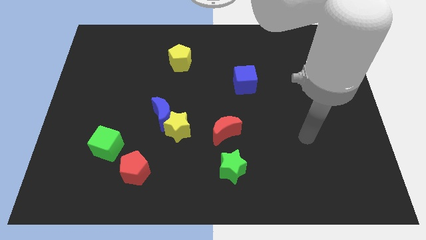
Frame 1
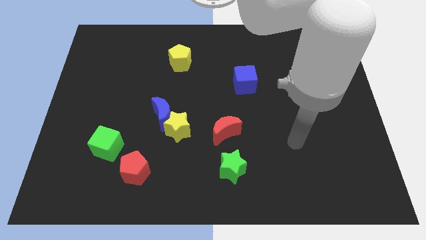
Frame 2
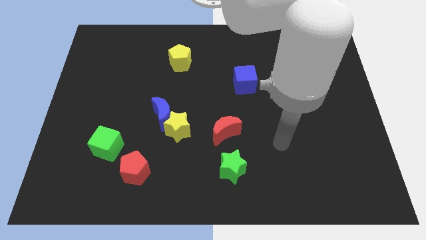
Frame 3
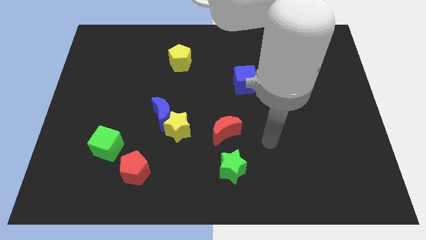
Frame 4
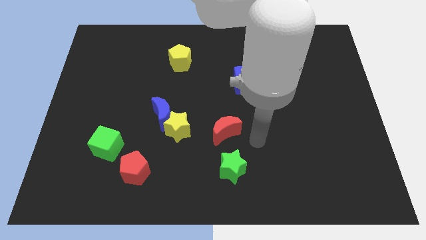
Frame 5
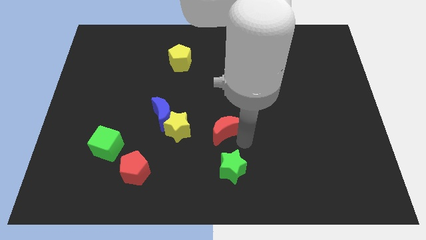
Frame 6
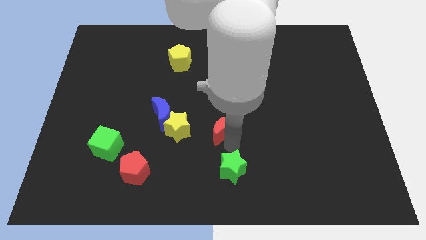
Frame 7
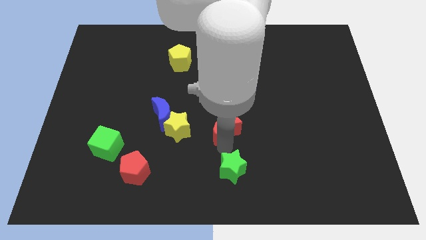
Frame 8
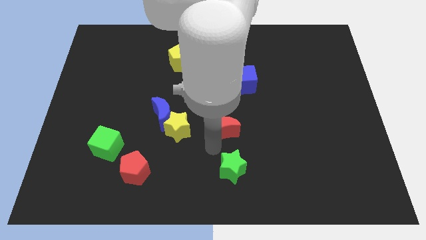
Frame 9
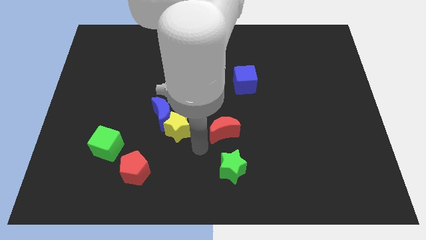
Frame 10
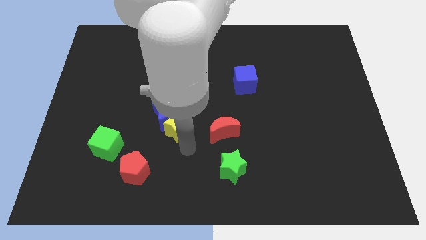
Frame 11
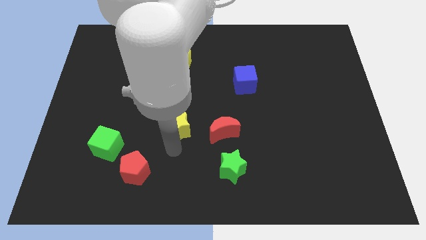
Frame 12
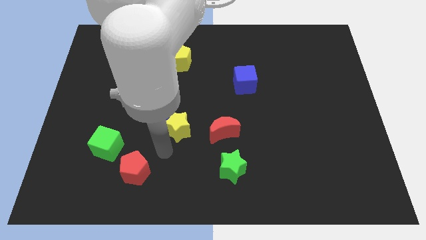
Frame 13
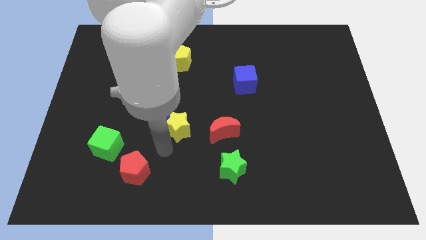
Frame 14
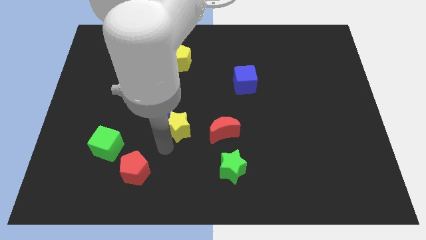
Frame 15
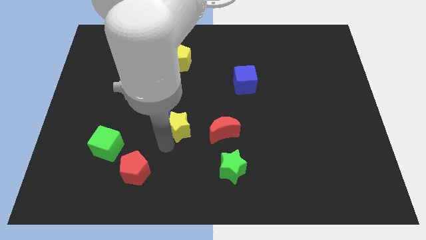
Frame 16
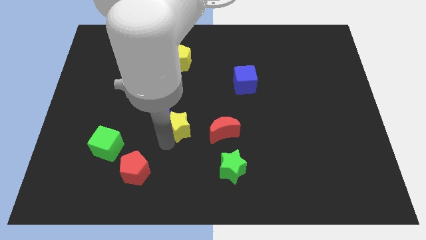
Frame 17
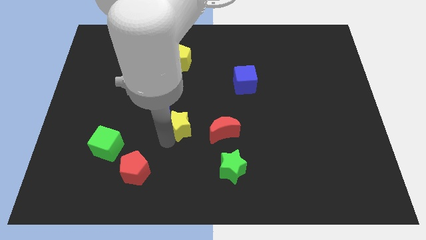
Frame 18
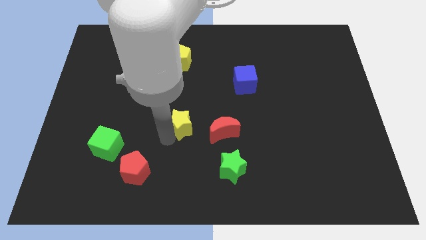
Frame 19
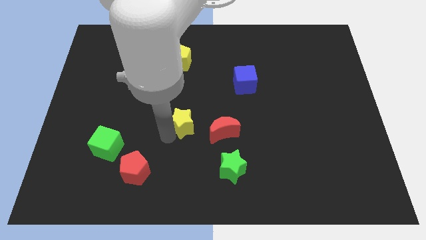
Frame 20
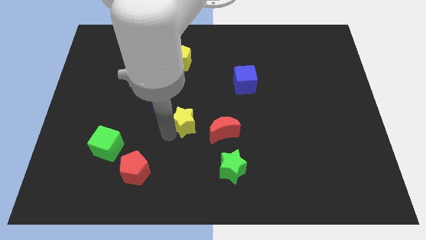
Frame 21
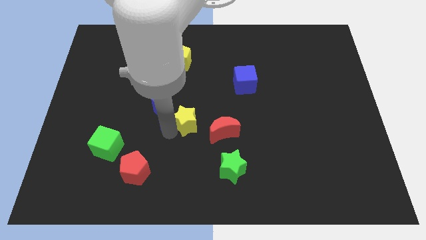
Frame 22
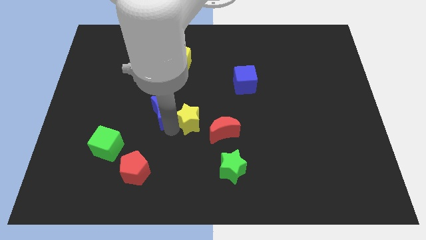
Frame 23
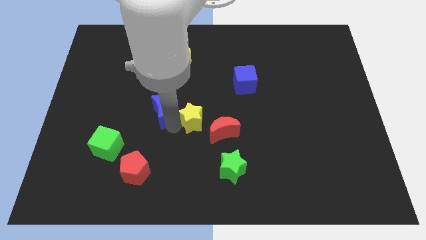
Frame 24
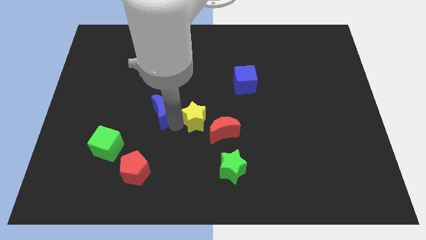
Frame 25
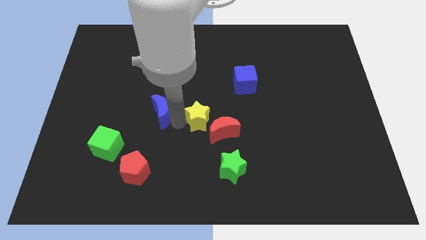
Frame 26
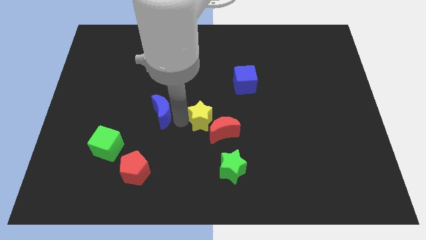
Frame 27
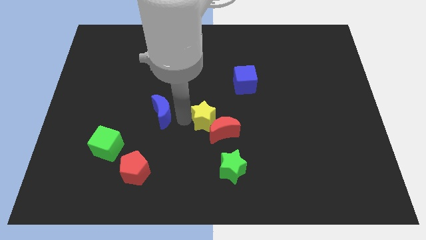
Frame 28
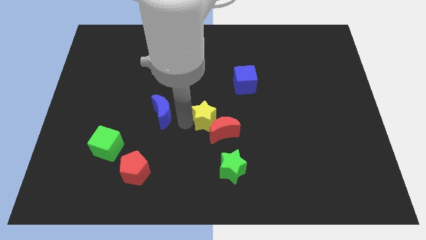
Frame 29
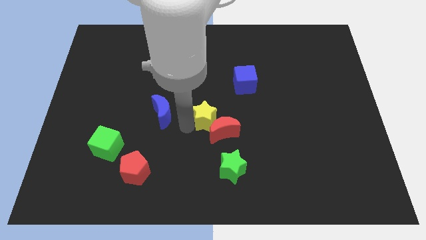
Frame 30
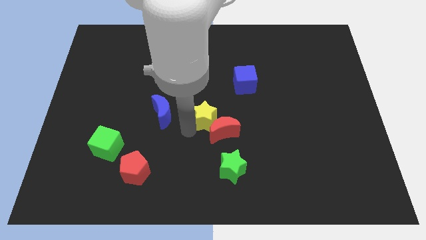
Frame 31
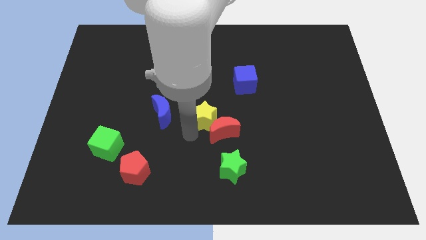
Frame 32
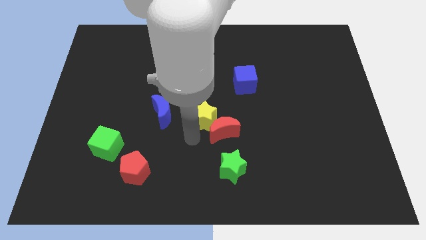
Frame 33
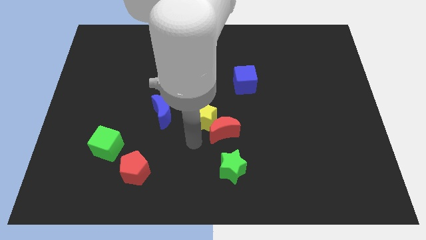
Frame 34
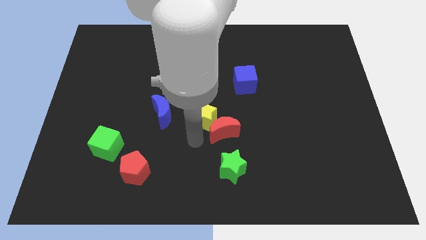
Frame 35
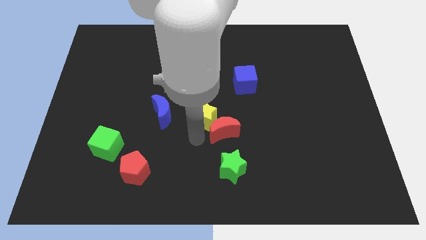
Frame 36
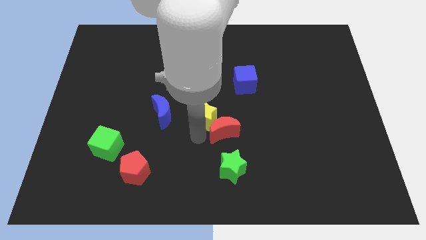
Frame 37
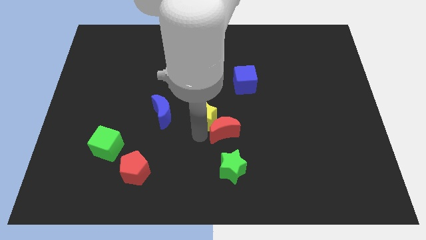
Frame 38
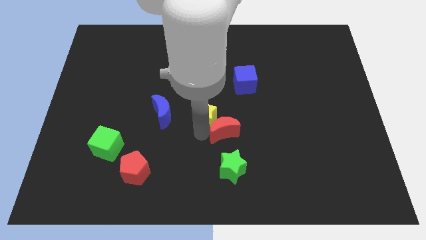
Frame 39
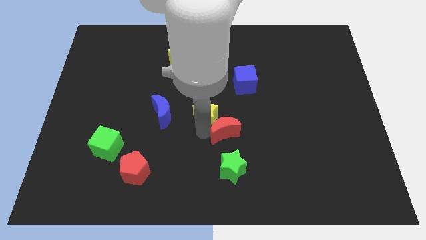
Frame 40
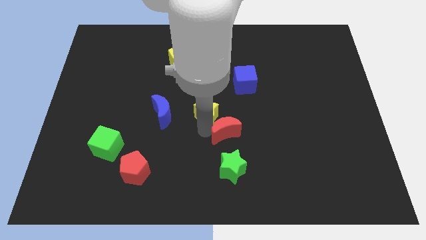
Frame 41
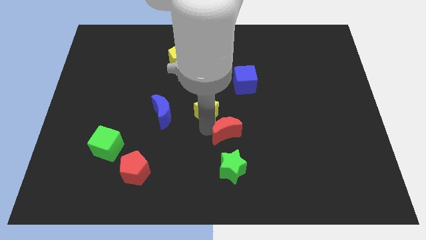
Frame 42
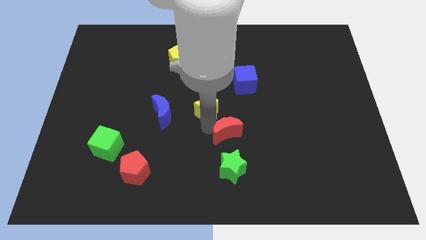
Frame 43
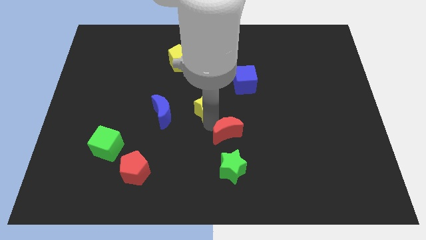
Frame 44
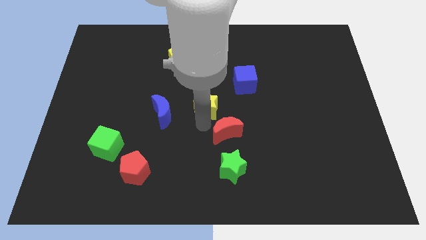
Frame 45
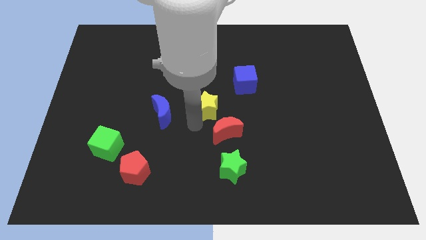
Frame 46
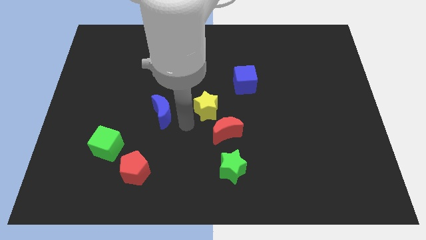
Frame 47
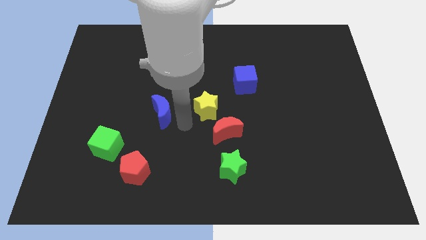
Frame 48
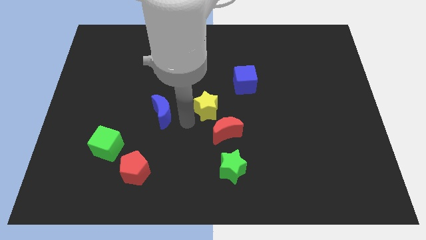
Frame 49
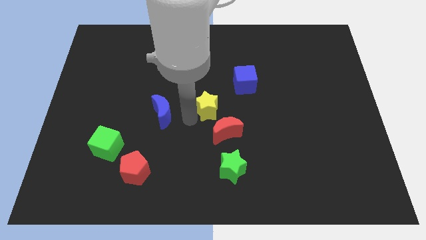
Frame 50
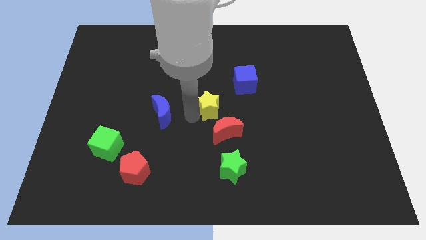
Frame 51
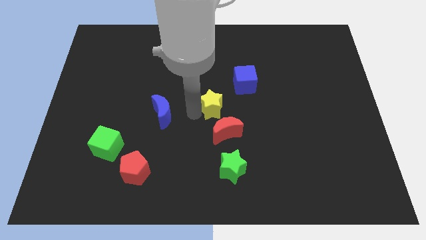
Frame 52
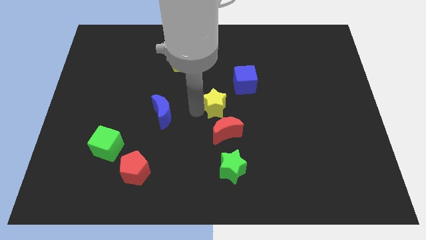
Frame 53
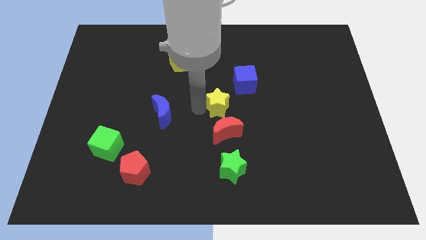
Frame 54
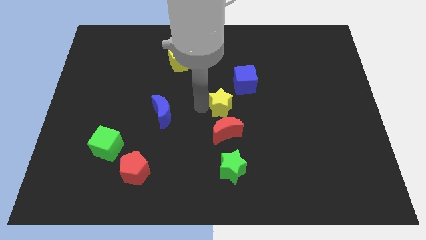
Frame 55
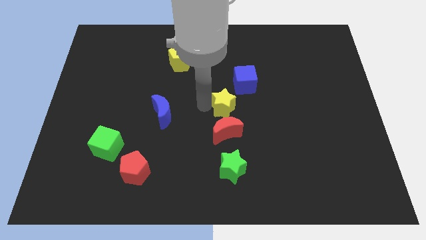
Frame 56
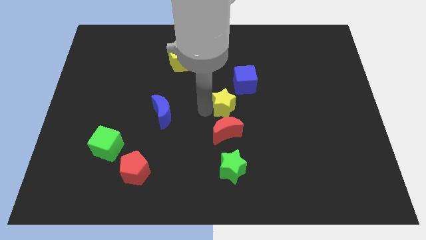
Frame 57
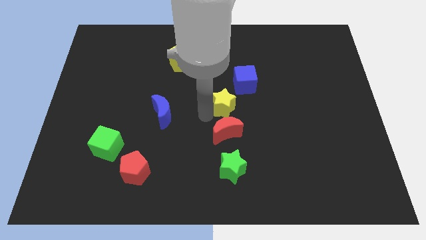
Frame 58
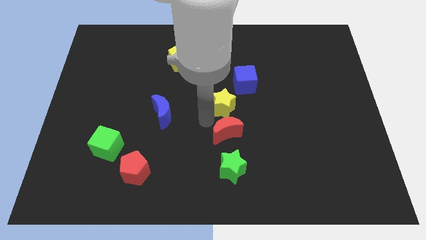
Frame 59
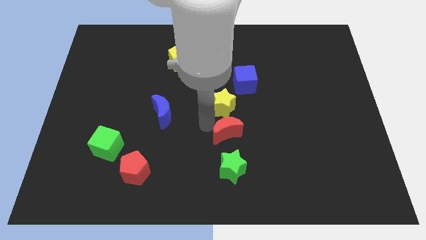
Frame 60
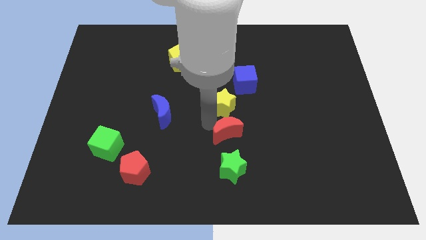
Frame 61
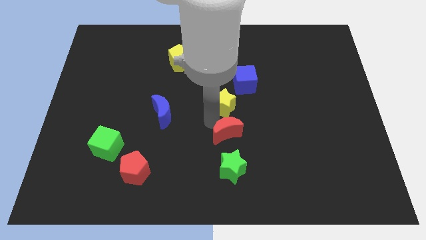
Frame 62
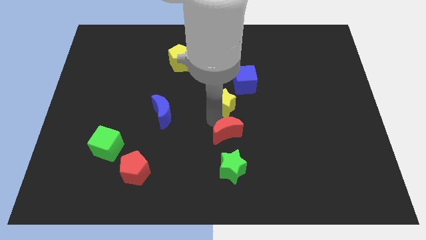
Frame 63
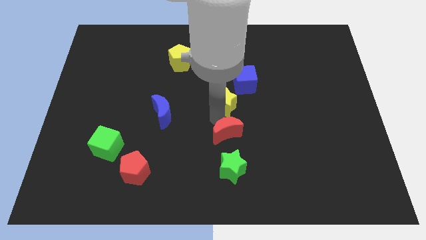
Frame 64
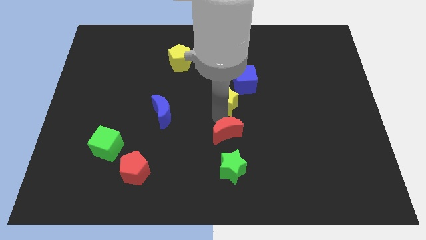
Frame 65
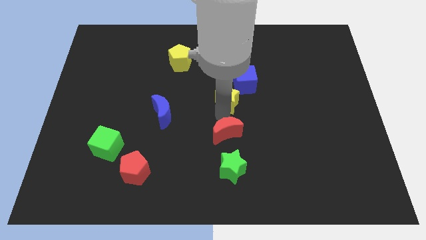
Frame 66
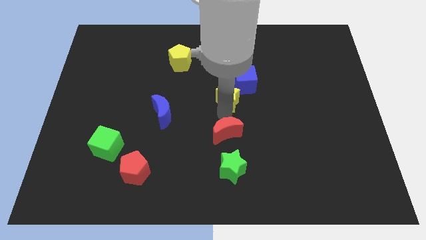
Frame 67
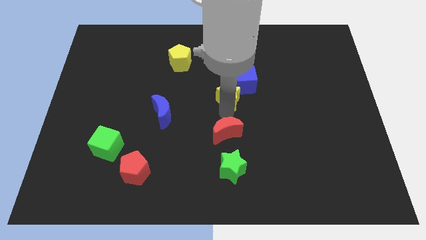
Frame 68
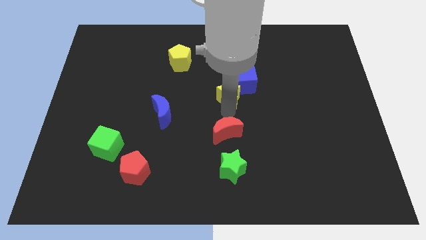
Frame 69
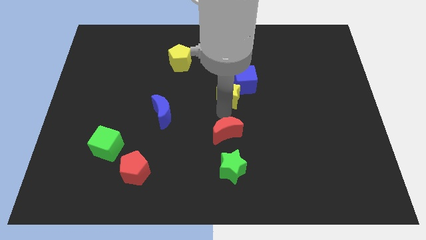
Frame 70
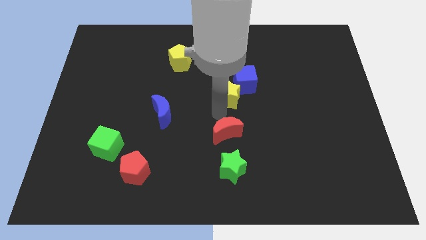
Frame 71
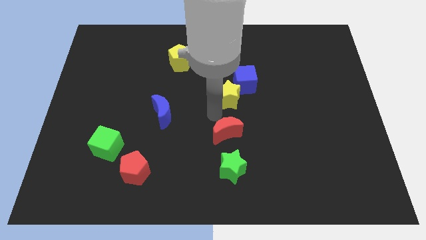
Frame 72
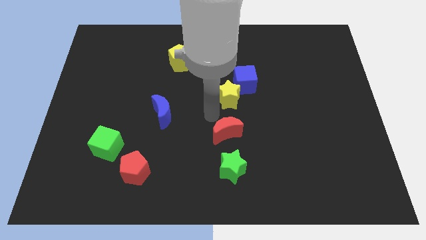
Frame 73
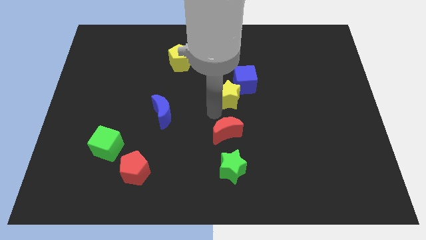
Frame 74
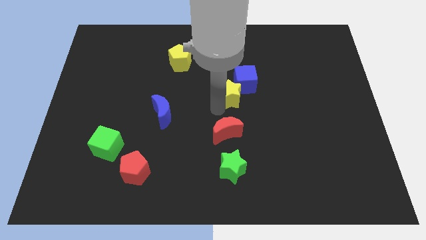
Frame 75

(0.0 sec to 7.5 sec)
put the yellow star close to the blue cube
